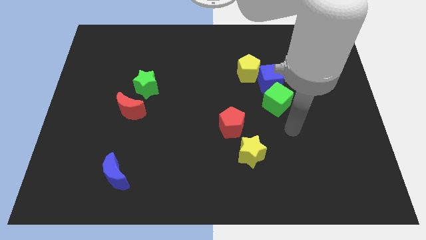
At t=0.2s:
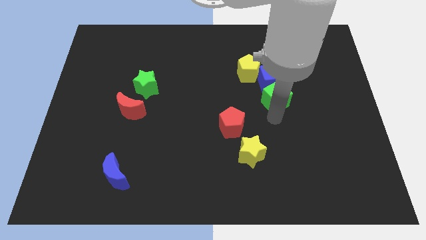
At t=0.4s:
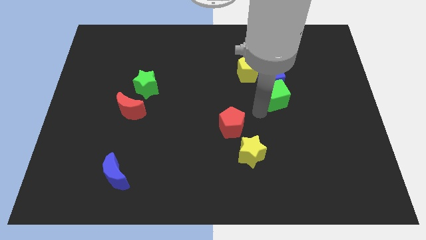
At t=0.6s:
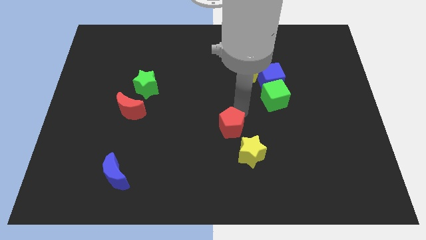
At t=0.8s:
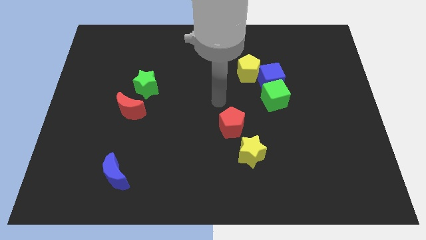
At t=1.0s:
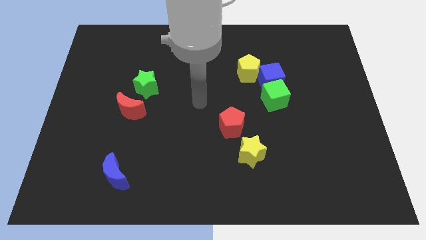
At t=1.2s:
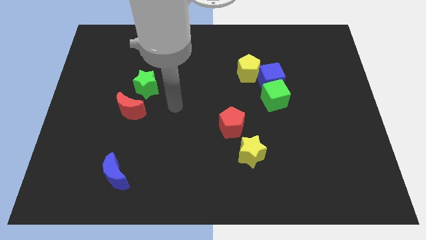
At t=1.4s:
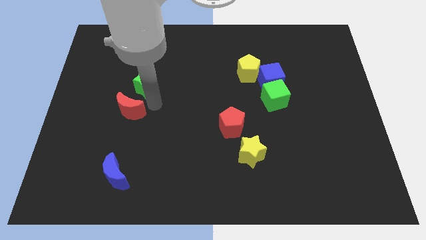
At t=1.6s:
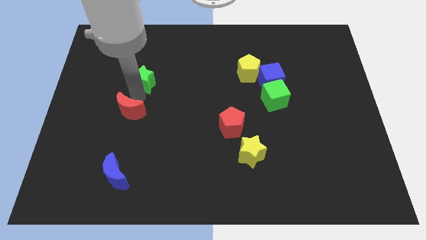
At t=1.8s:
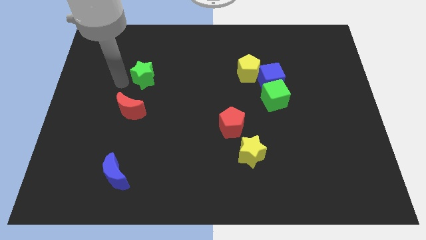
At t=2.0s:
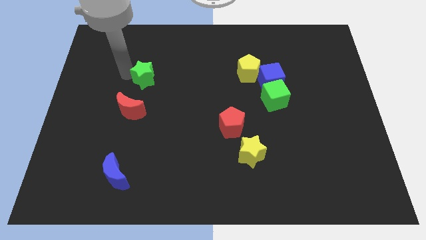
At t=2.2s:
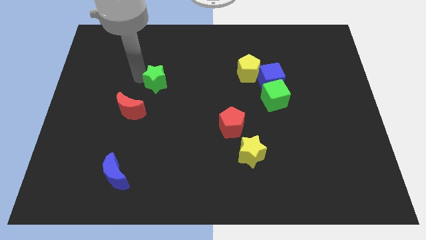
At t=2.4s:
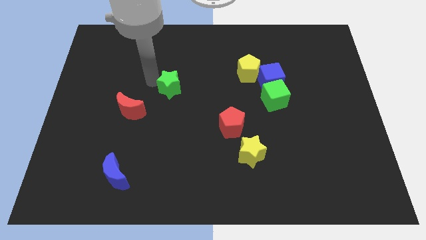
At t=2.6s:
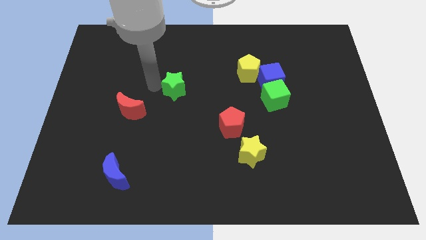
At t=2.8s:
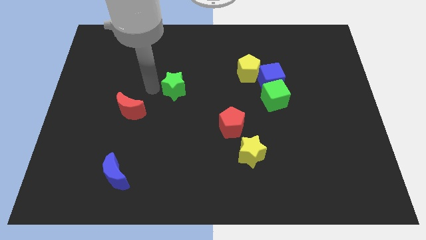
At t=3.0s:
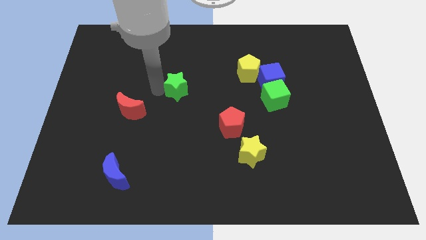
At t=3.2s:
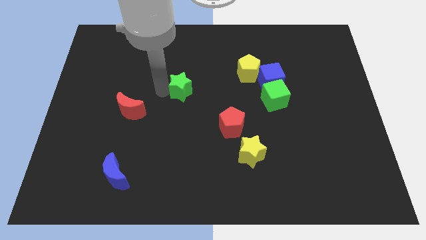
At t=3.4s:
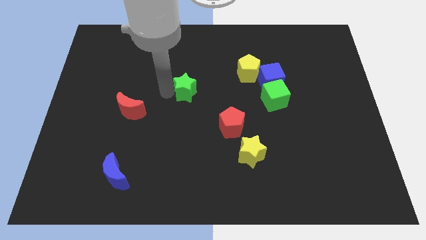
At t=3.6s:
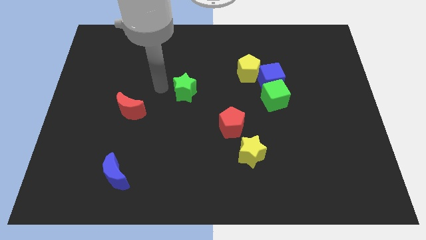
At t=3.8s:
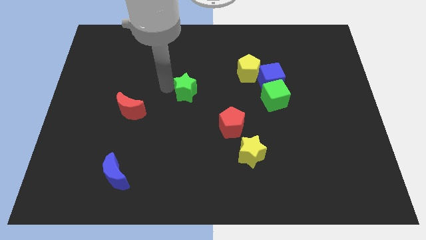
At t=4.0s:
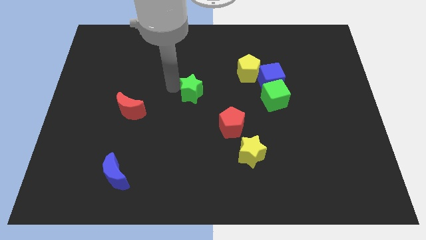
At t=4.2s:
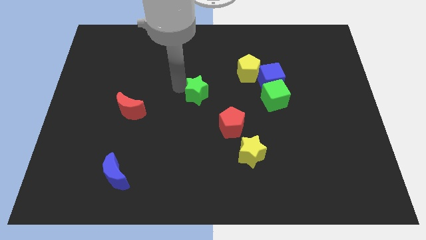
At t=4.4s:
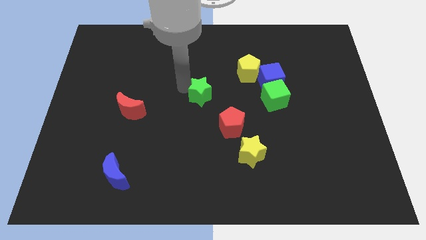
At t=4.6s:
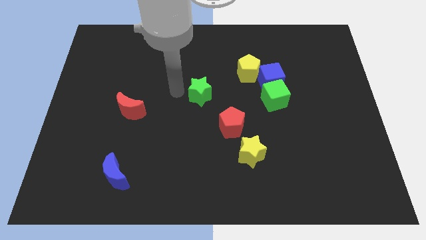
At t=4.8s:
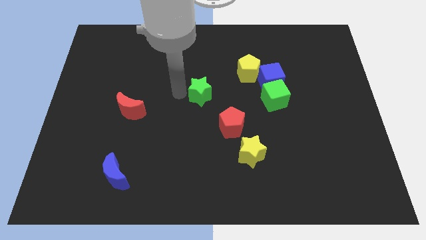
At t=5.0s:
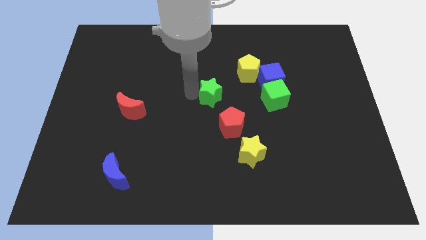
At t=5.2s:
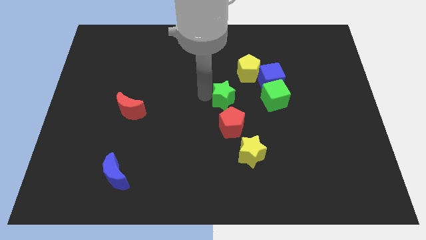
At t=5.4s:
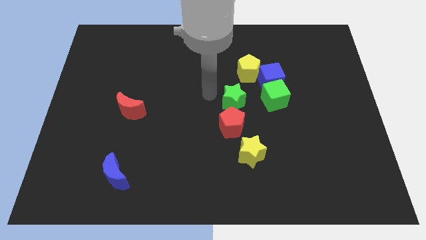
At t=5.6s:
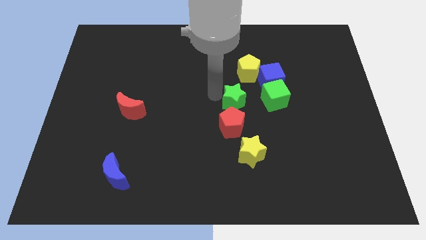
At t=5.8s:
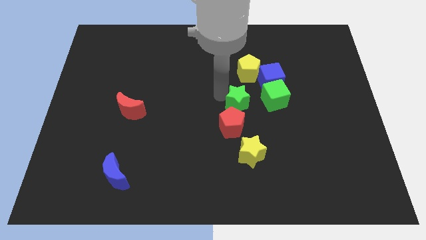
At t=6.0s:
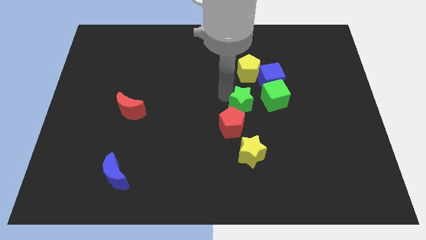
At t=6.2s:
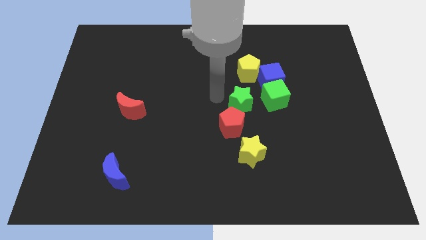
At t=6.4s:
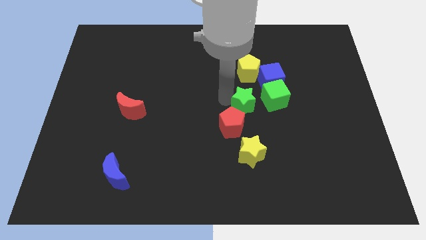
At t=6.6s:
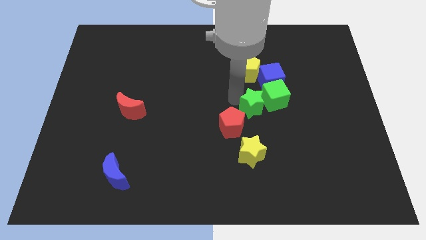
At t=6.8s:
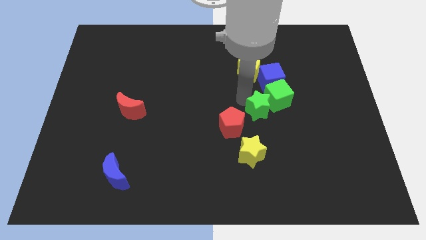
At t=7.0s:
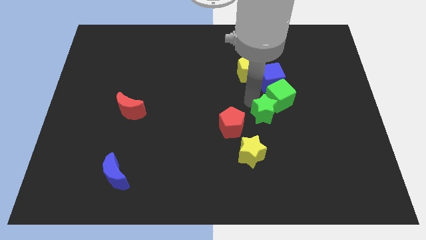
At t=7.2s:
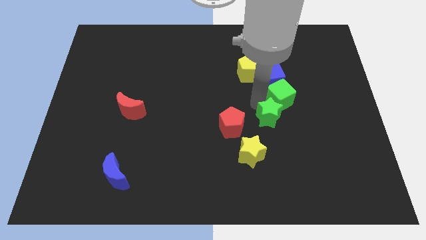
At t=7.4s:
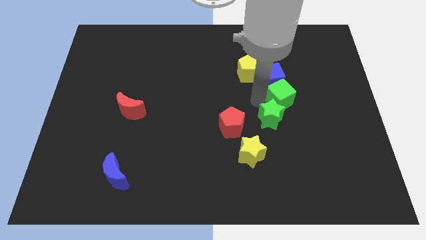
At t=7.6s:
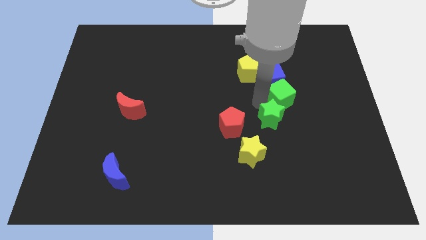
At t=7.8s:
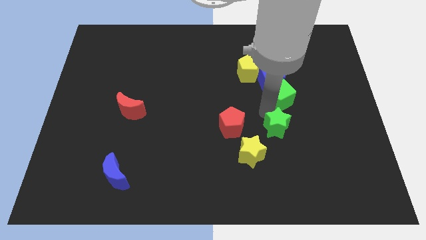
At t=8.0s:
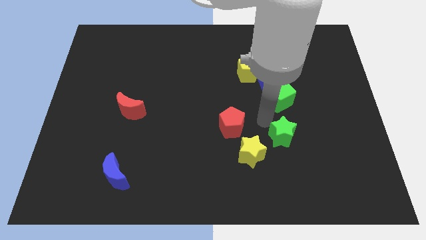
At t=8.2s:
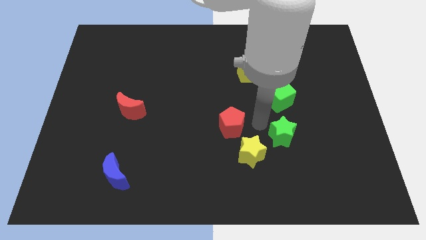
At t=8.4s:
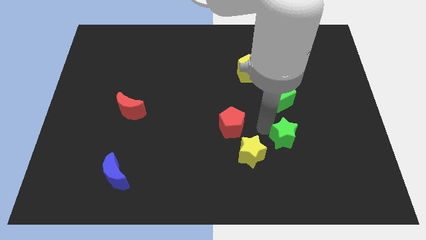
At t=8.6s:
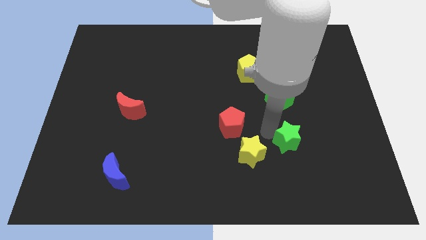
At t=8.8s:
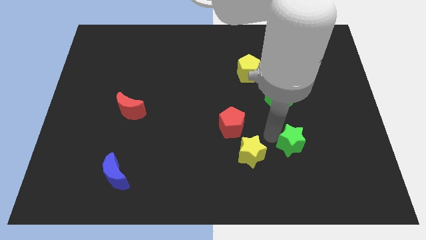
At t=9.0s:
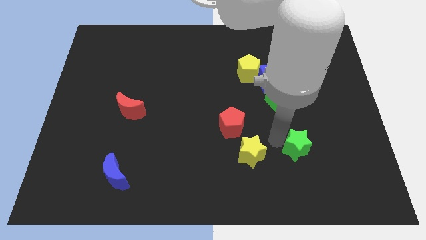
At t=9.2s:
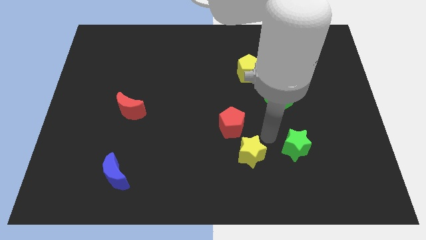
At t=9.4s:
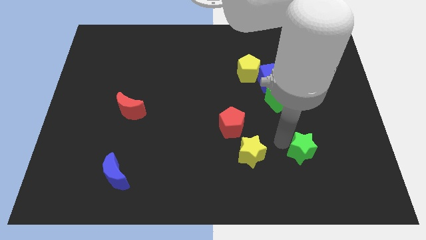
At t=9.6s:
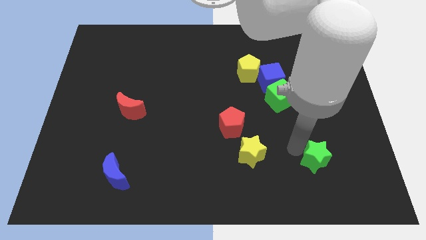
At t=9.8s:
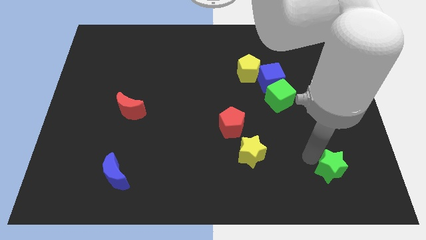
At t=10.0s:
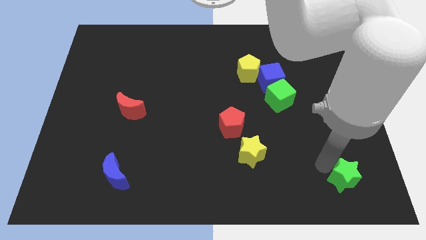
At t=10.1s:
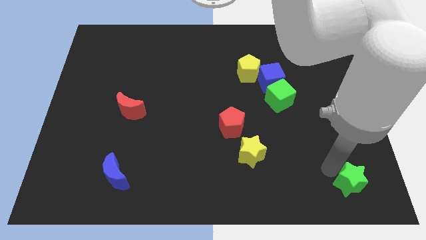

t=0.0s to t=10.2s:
slide the green star to the lower right corner

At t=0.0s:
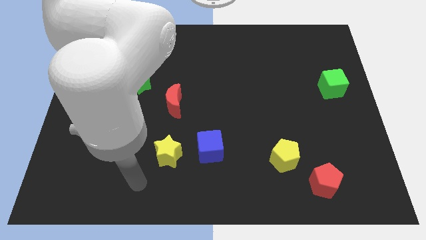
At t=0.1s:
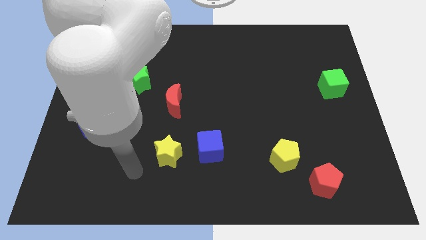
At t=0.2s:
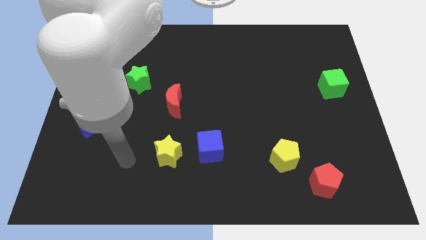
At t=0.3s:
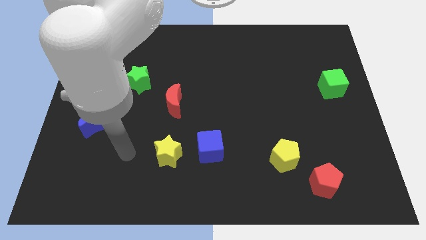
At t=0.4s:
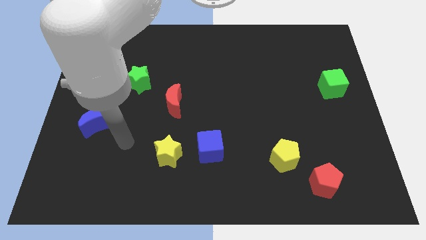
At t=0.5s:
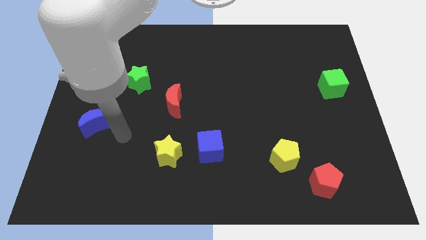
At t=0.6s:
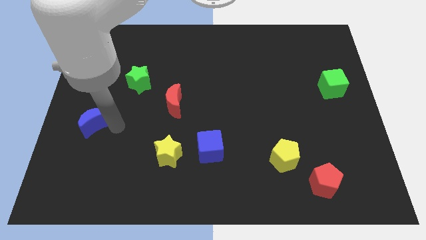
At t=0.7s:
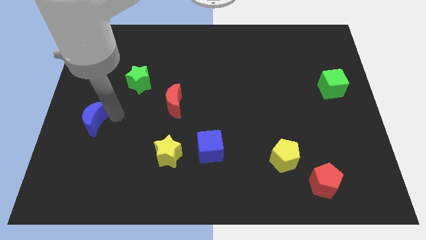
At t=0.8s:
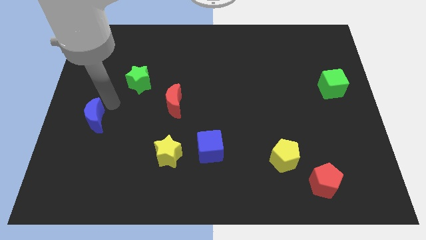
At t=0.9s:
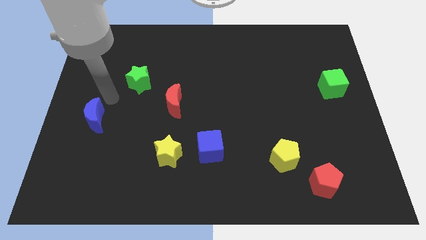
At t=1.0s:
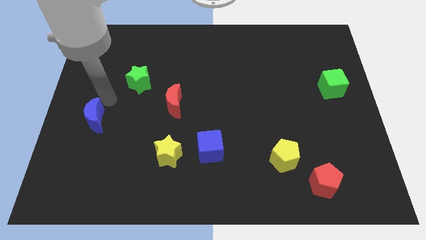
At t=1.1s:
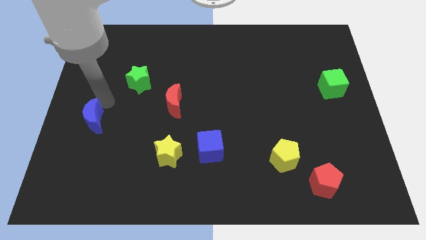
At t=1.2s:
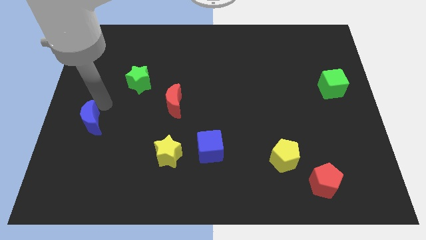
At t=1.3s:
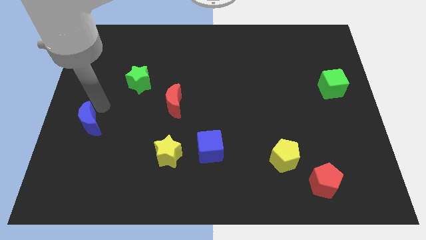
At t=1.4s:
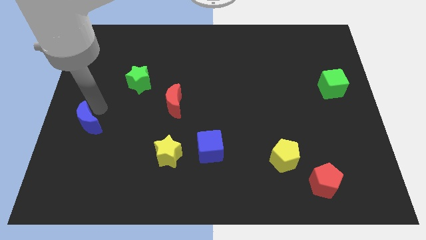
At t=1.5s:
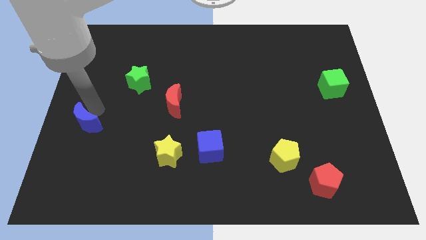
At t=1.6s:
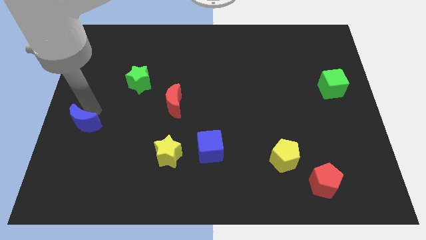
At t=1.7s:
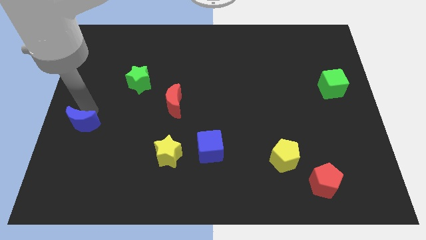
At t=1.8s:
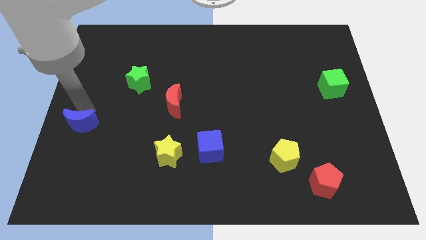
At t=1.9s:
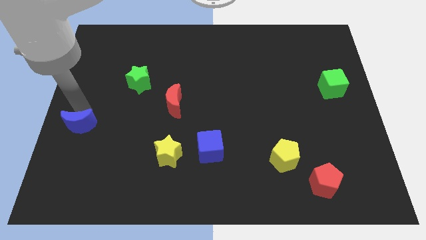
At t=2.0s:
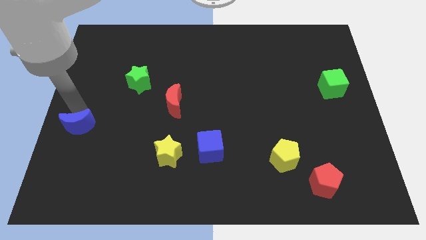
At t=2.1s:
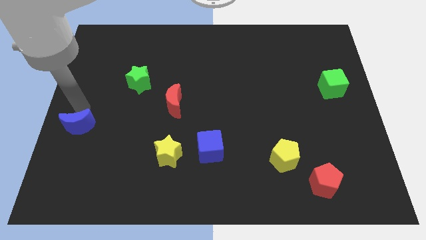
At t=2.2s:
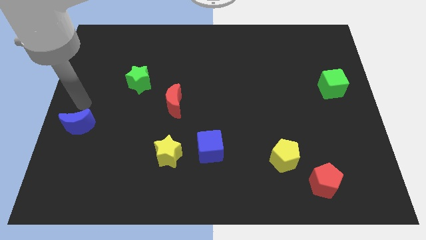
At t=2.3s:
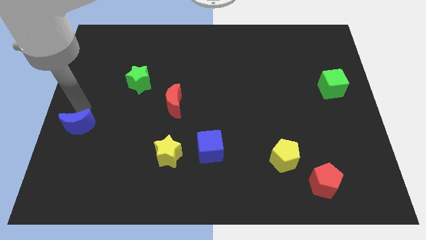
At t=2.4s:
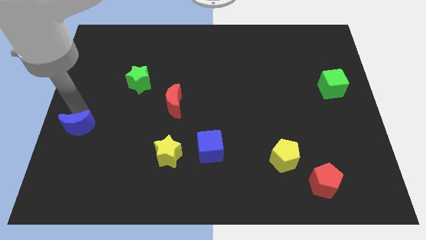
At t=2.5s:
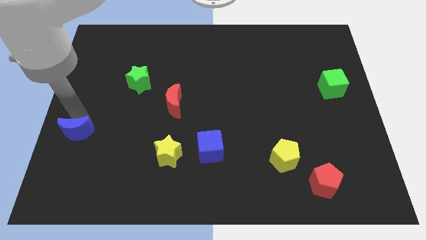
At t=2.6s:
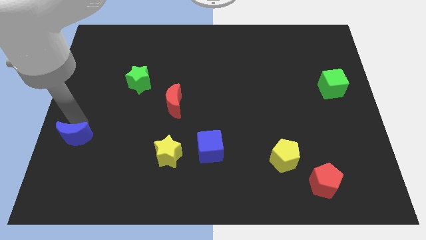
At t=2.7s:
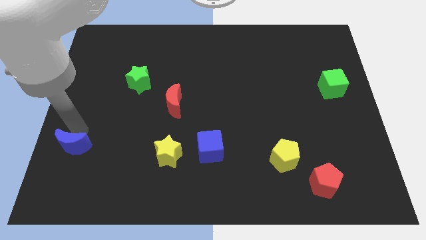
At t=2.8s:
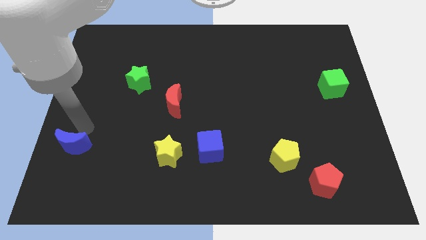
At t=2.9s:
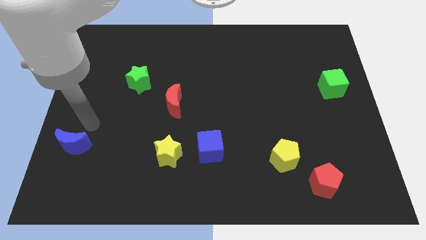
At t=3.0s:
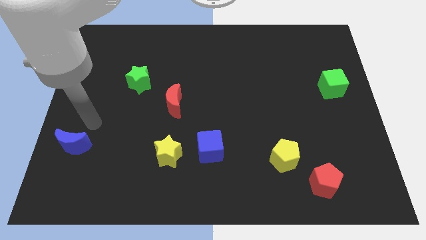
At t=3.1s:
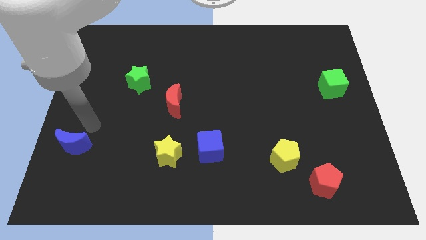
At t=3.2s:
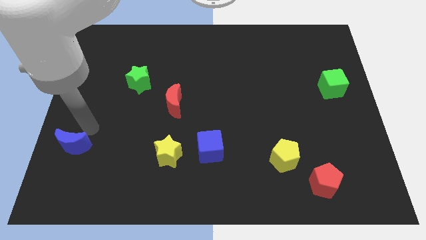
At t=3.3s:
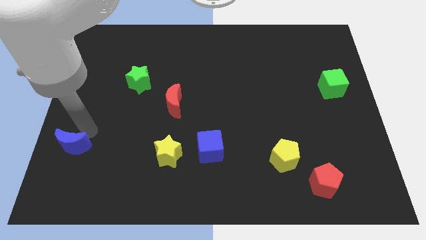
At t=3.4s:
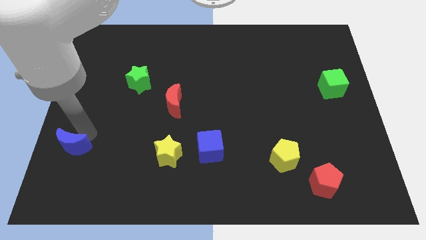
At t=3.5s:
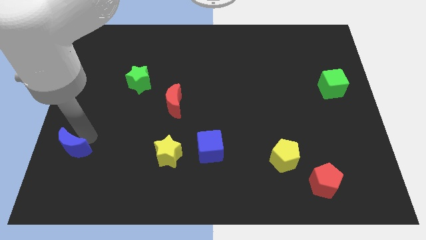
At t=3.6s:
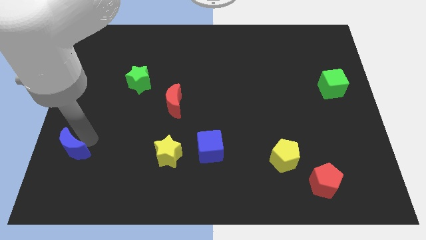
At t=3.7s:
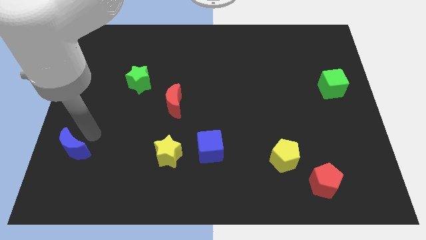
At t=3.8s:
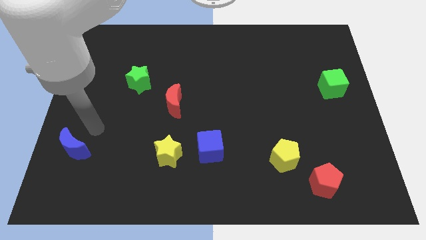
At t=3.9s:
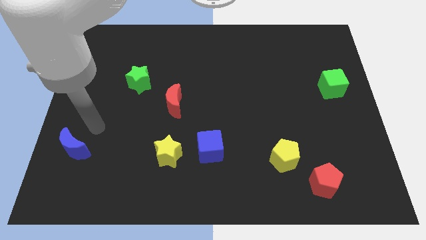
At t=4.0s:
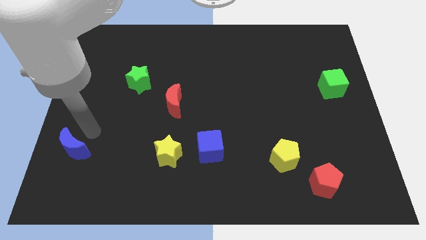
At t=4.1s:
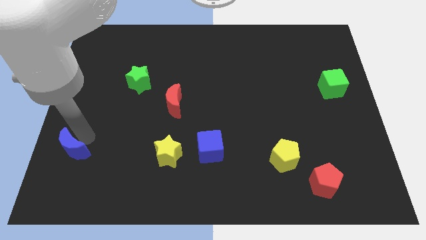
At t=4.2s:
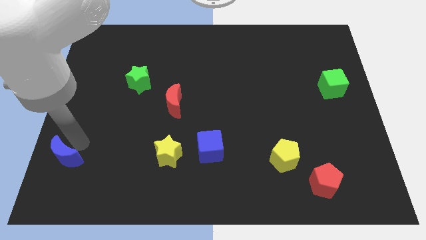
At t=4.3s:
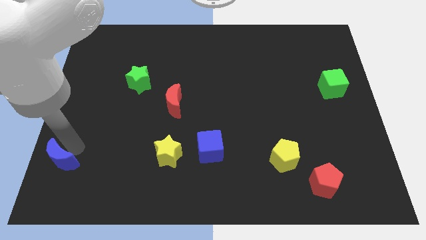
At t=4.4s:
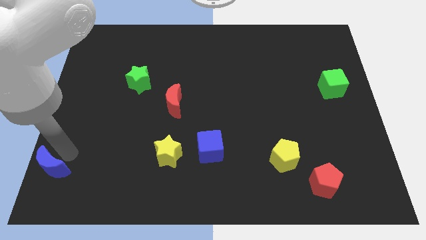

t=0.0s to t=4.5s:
move the blue moon to the bottom left of the board
